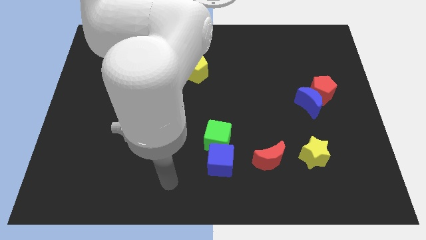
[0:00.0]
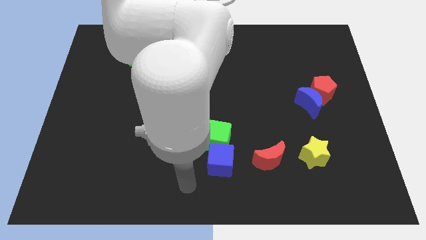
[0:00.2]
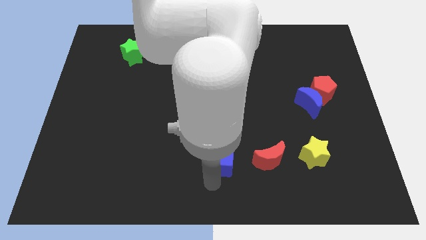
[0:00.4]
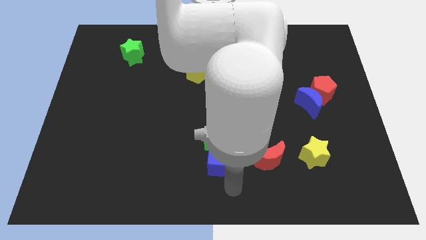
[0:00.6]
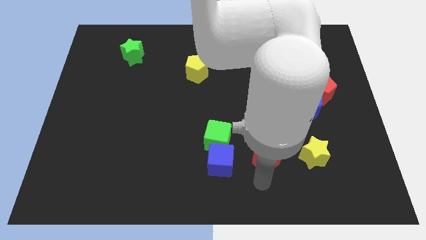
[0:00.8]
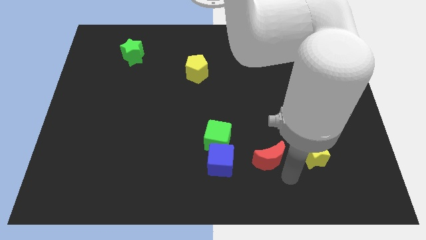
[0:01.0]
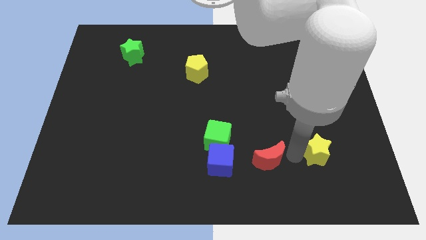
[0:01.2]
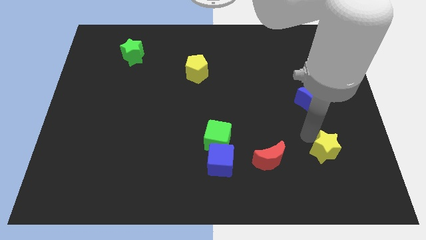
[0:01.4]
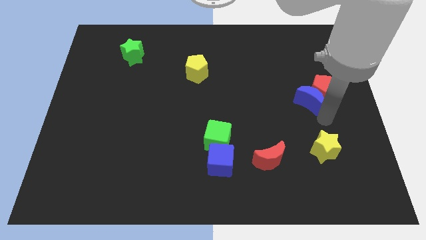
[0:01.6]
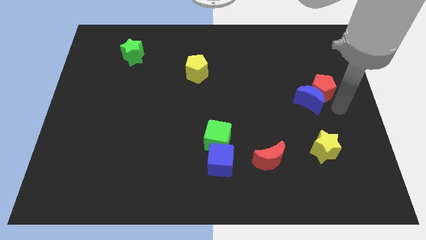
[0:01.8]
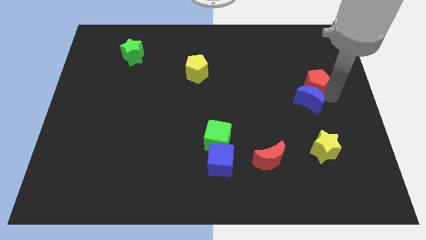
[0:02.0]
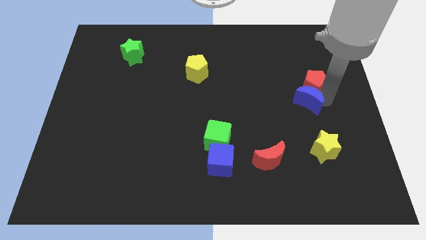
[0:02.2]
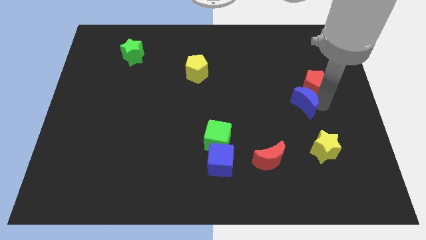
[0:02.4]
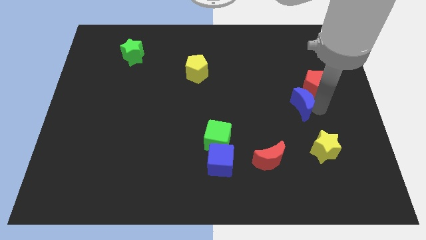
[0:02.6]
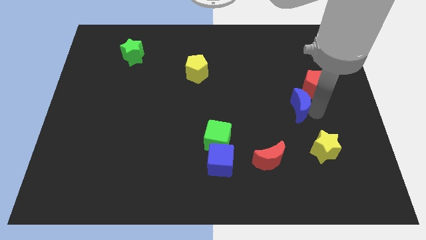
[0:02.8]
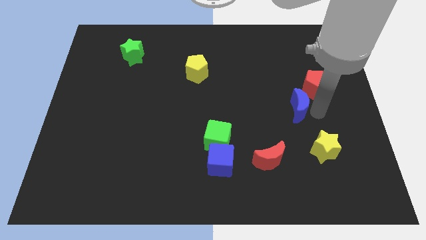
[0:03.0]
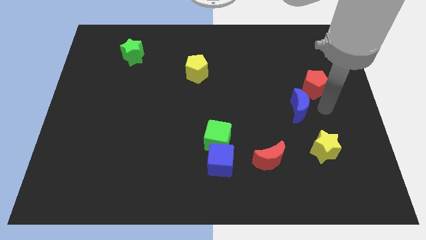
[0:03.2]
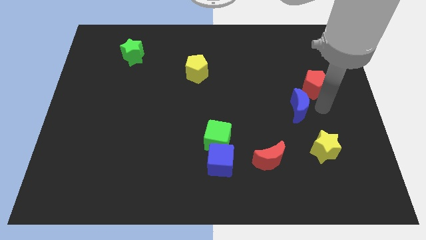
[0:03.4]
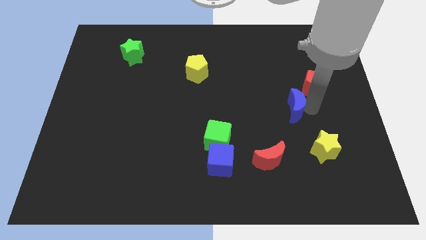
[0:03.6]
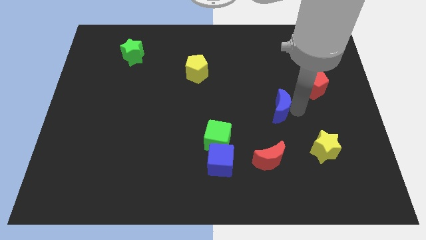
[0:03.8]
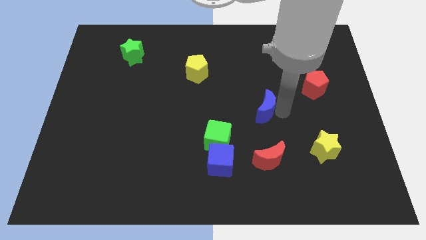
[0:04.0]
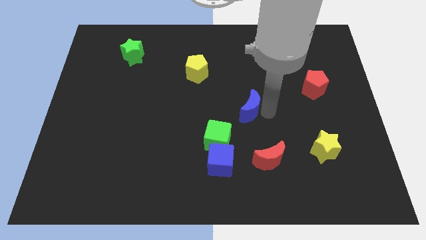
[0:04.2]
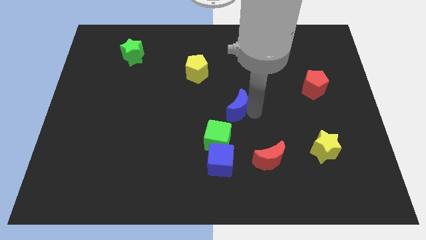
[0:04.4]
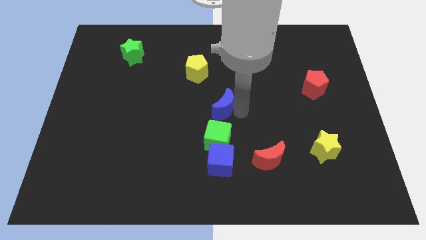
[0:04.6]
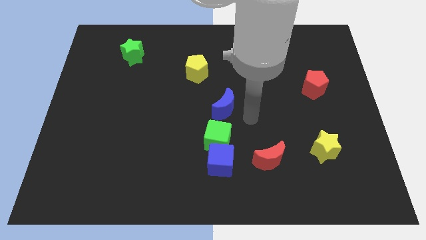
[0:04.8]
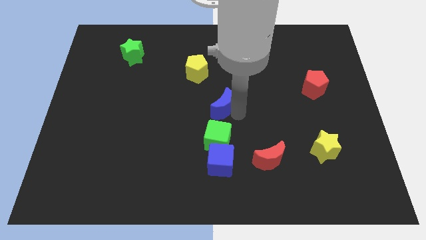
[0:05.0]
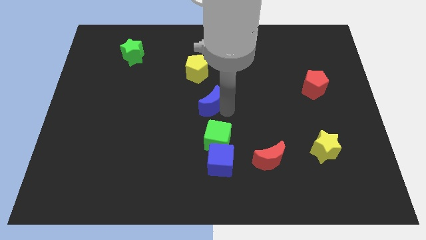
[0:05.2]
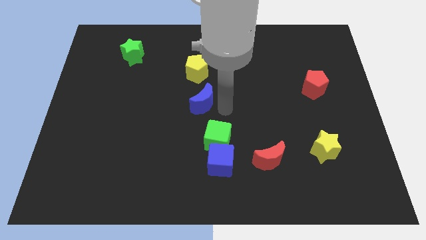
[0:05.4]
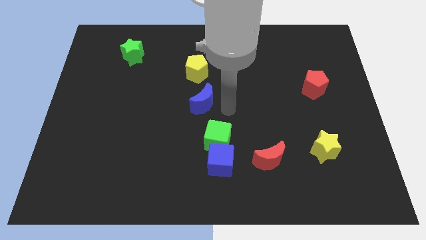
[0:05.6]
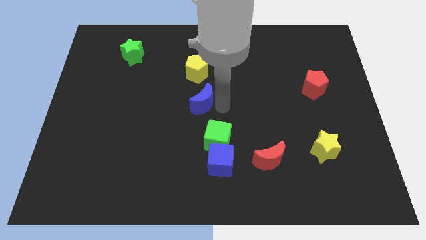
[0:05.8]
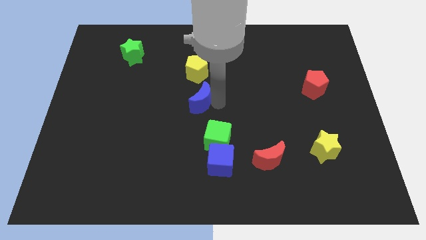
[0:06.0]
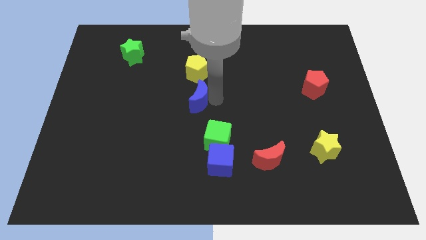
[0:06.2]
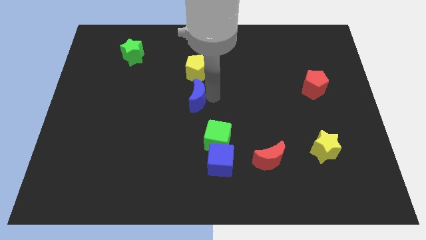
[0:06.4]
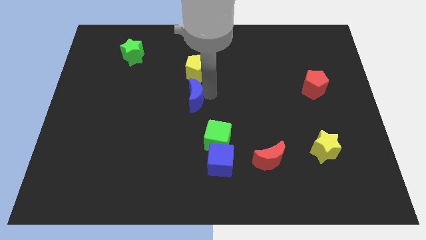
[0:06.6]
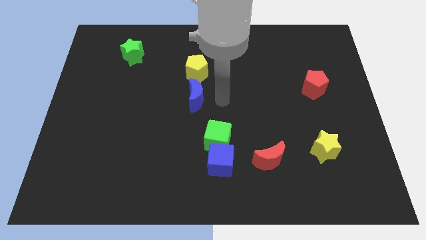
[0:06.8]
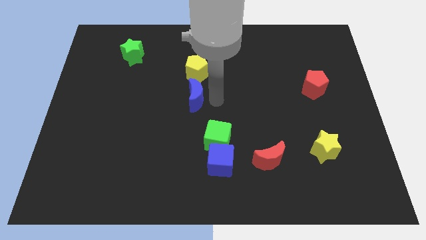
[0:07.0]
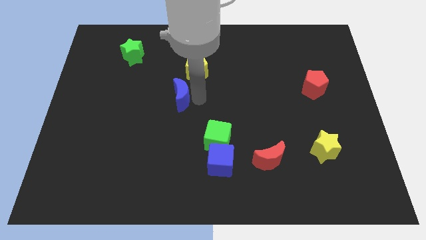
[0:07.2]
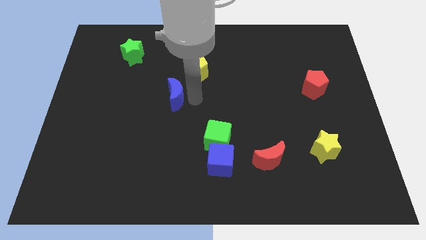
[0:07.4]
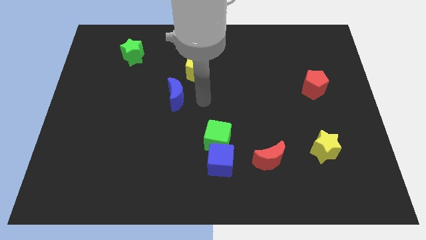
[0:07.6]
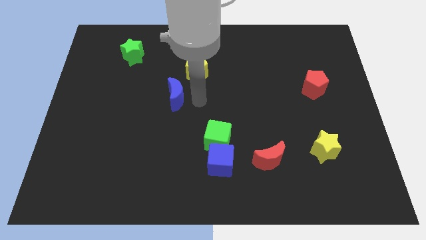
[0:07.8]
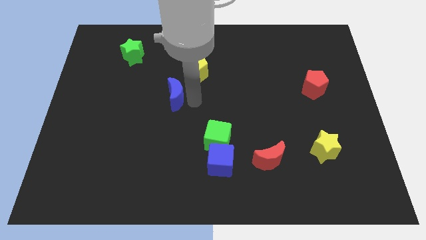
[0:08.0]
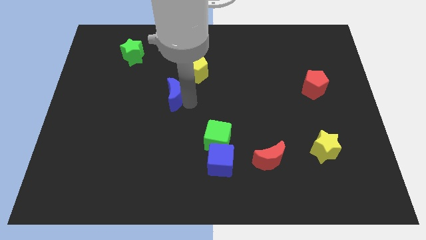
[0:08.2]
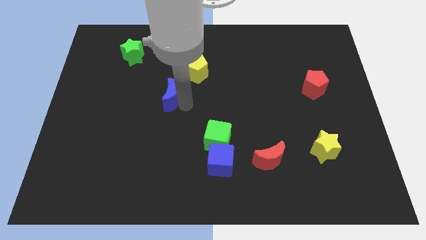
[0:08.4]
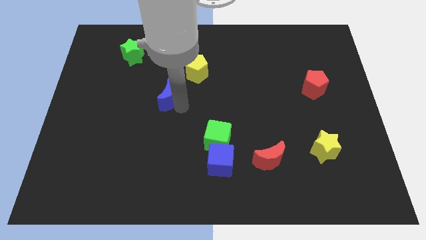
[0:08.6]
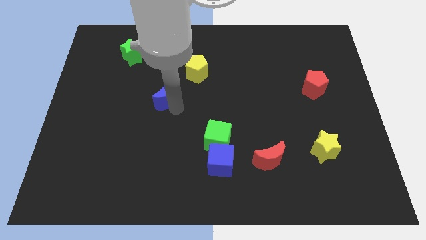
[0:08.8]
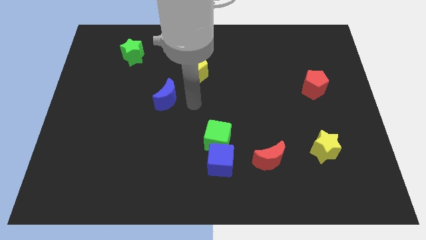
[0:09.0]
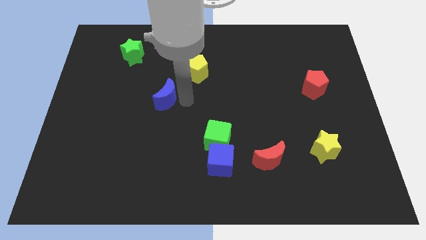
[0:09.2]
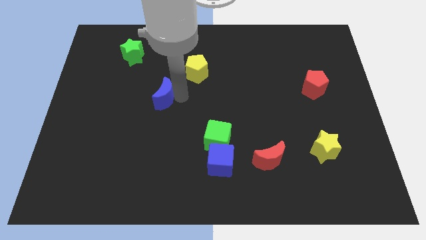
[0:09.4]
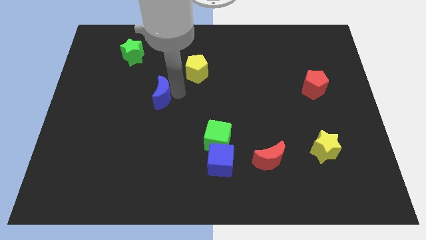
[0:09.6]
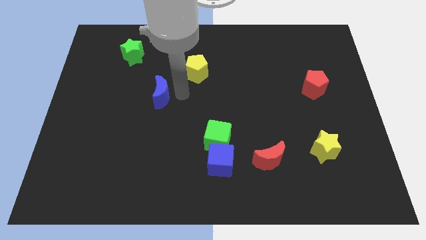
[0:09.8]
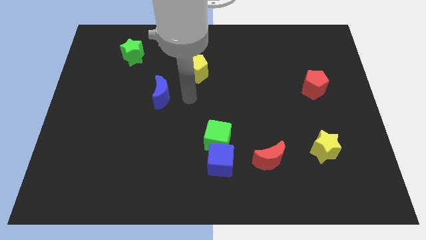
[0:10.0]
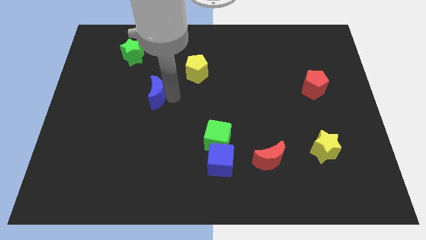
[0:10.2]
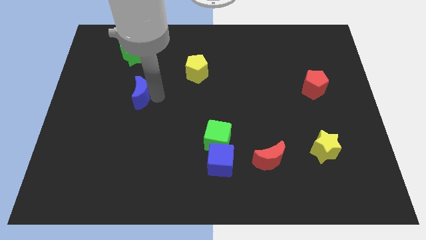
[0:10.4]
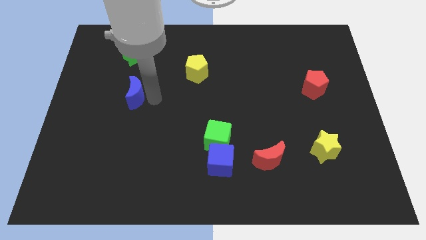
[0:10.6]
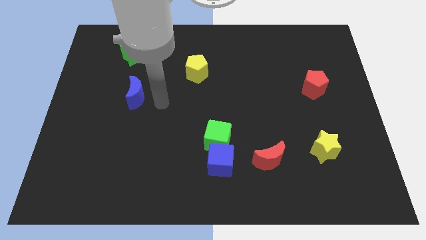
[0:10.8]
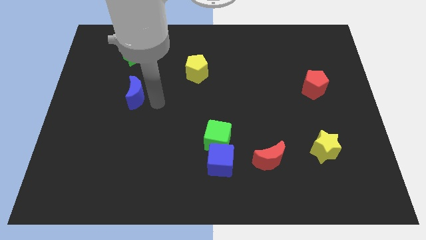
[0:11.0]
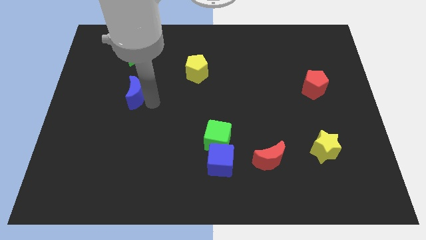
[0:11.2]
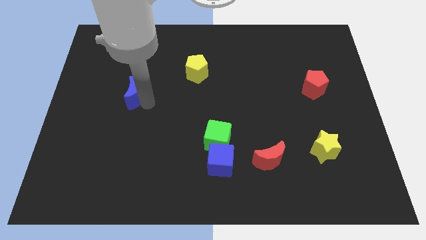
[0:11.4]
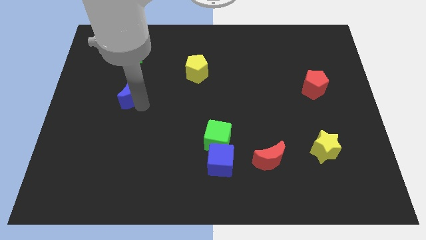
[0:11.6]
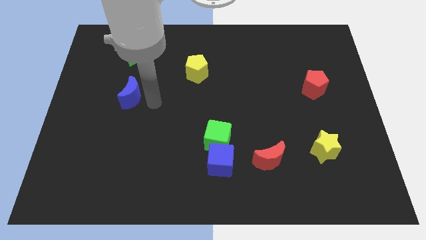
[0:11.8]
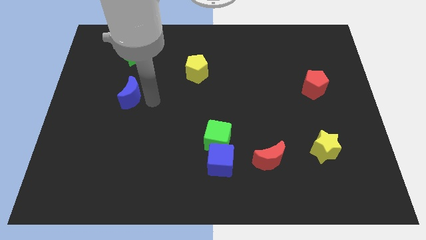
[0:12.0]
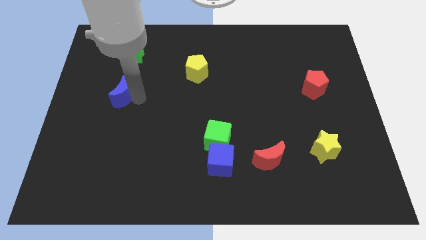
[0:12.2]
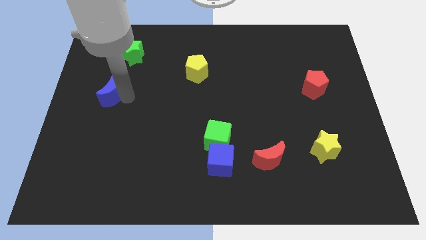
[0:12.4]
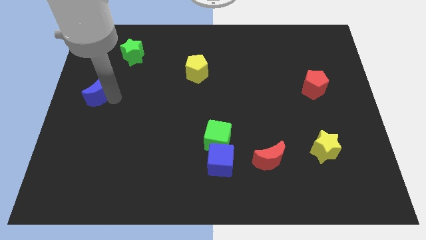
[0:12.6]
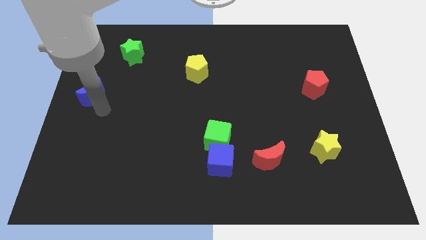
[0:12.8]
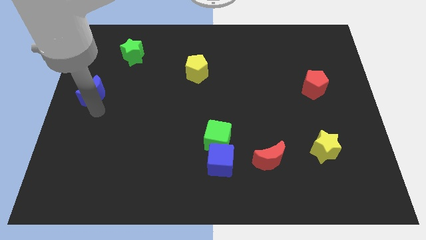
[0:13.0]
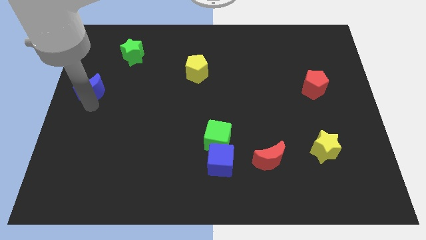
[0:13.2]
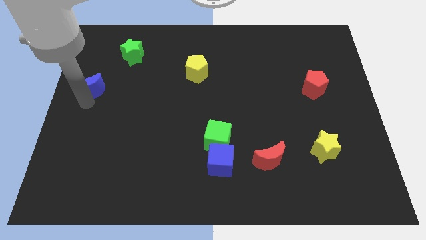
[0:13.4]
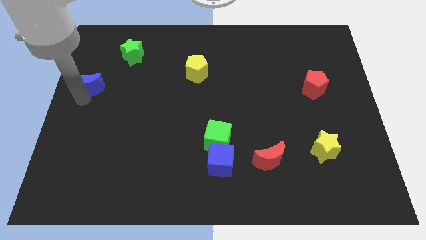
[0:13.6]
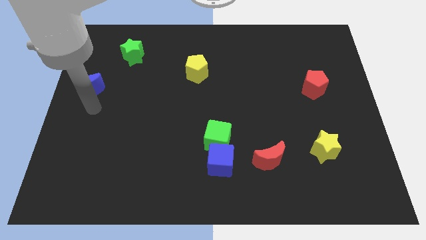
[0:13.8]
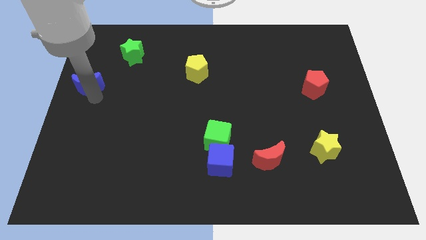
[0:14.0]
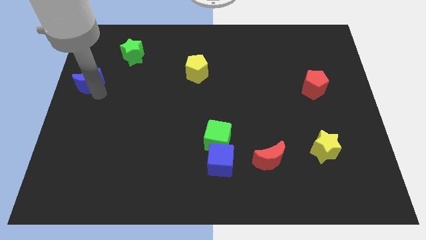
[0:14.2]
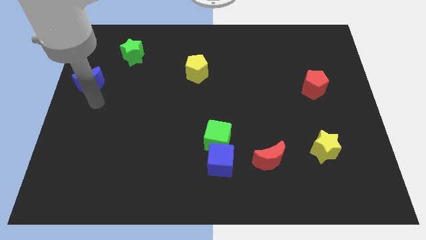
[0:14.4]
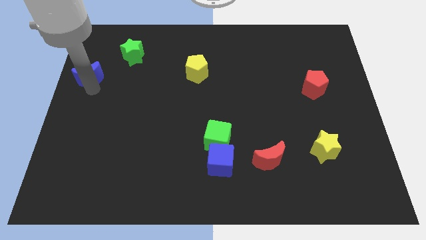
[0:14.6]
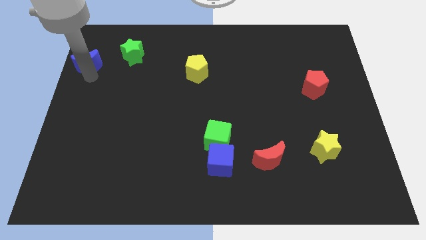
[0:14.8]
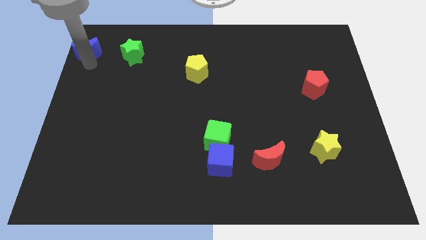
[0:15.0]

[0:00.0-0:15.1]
slide the blue moon to the top left
